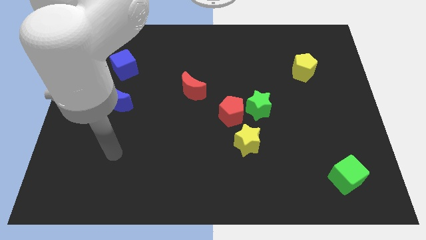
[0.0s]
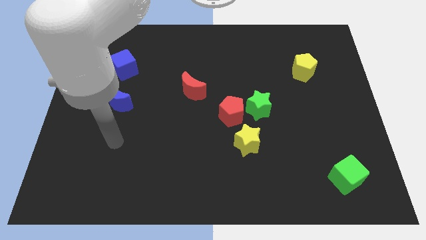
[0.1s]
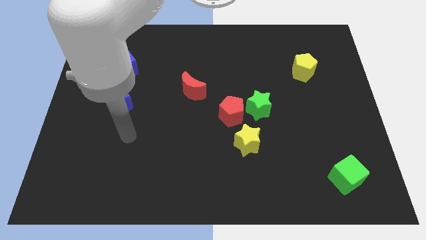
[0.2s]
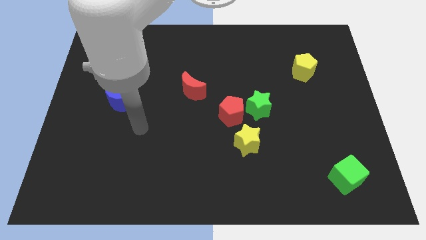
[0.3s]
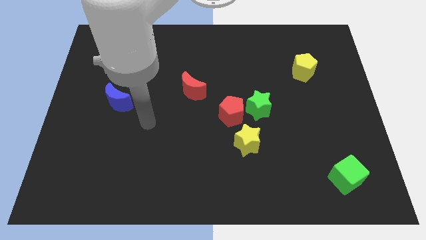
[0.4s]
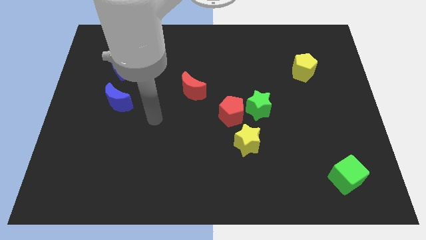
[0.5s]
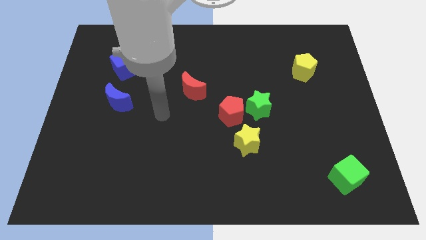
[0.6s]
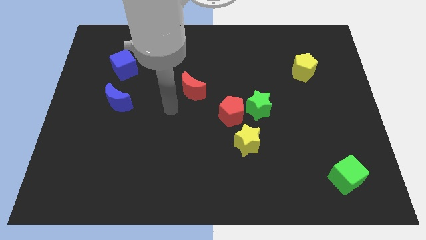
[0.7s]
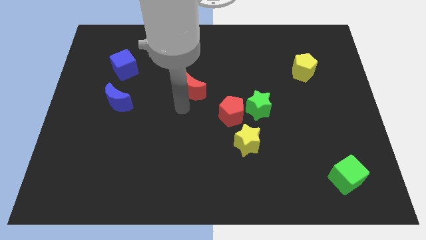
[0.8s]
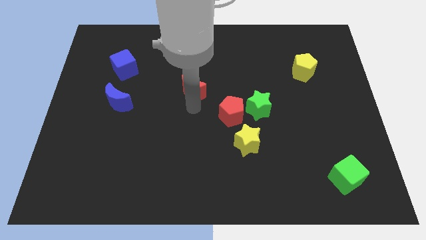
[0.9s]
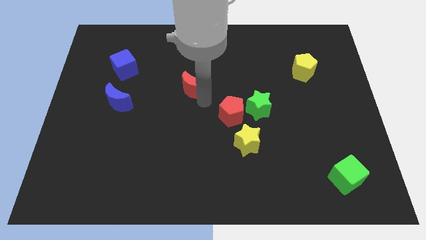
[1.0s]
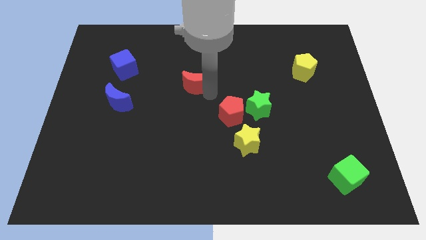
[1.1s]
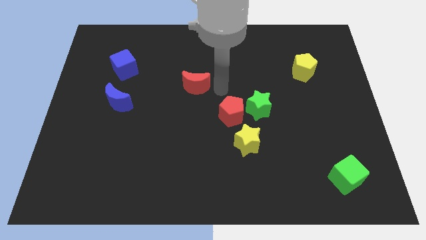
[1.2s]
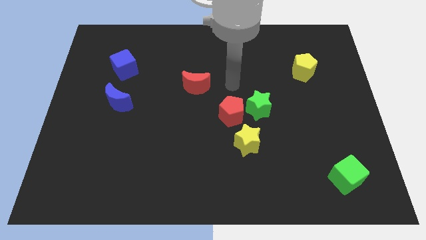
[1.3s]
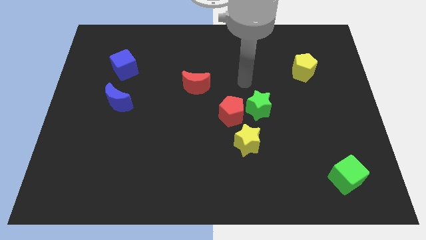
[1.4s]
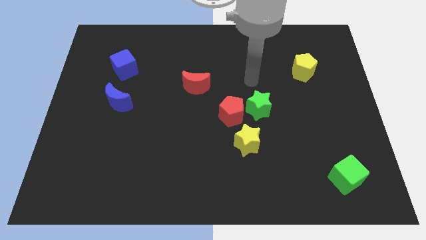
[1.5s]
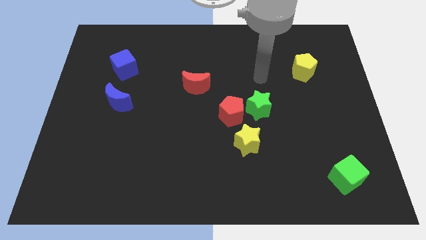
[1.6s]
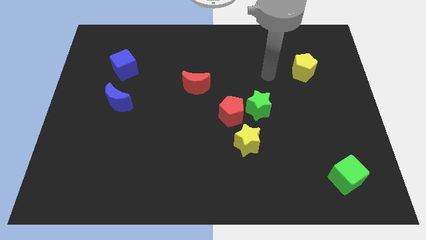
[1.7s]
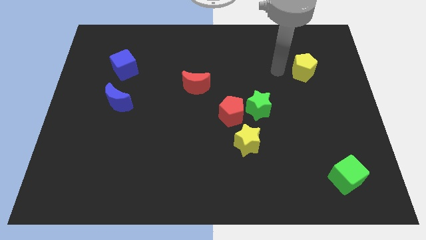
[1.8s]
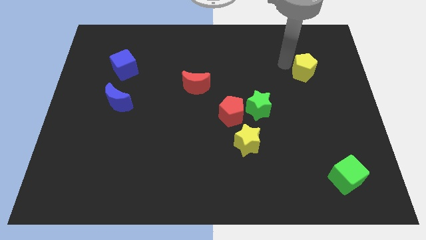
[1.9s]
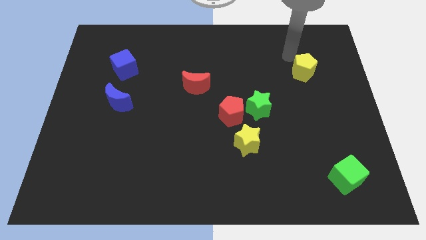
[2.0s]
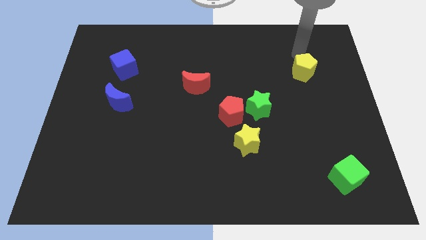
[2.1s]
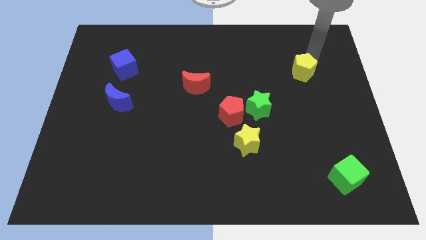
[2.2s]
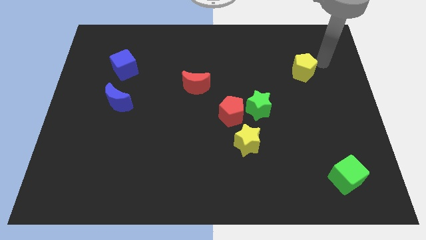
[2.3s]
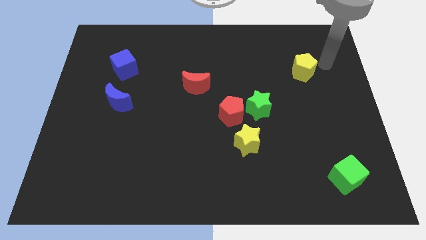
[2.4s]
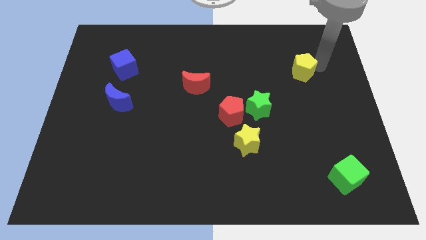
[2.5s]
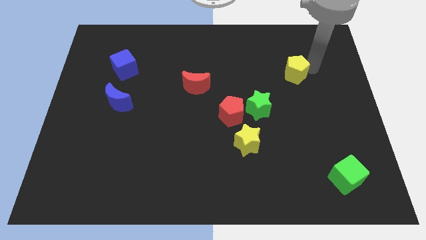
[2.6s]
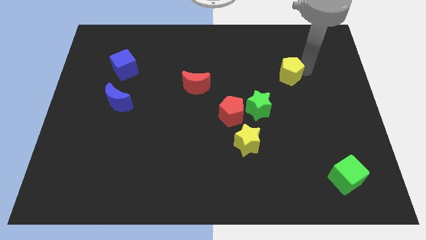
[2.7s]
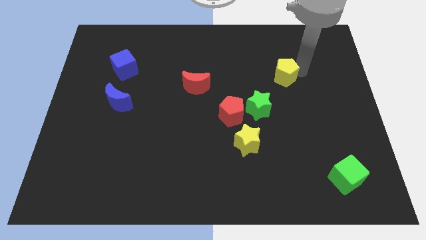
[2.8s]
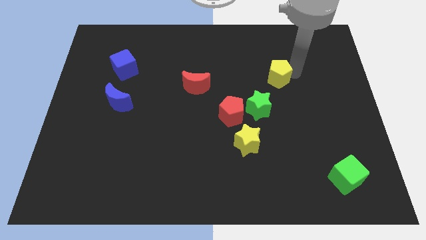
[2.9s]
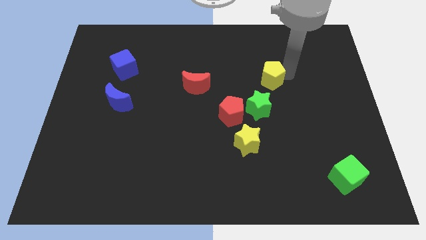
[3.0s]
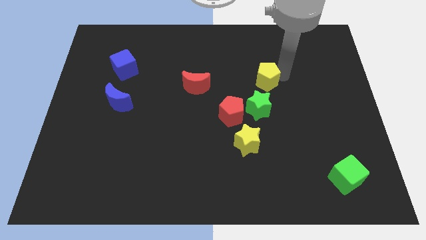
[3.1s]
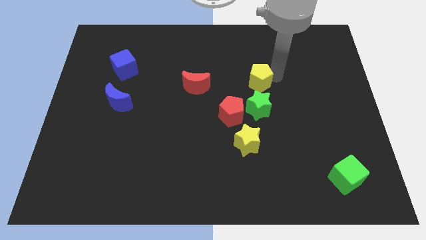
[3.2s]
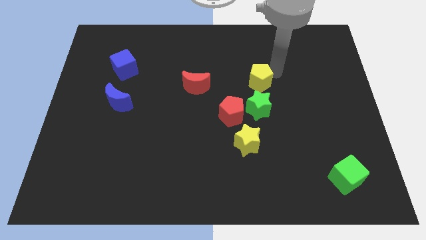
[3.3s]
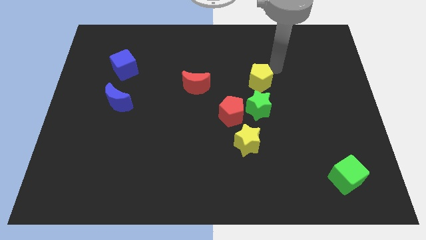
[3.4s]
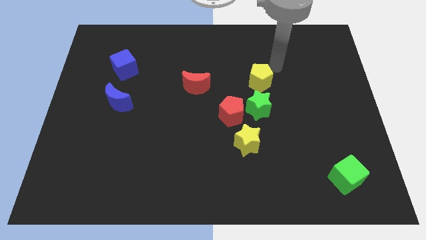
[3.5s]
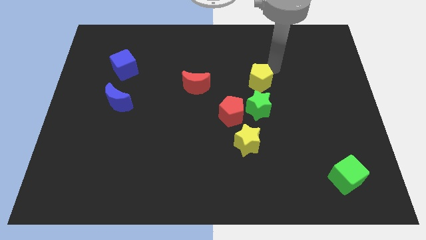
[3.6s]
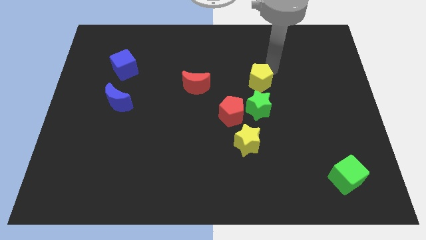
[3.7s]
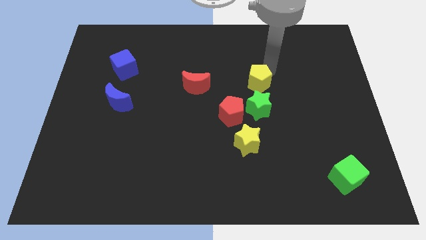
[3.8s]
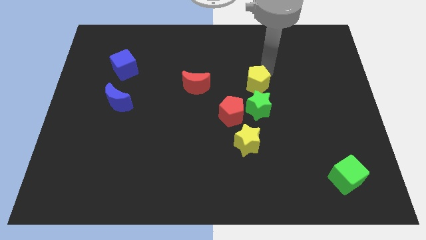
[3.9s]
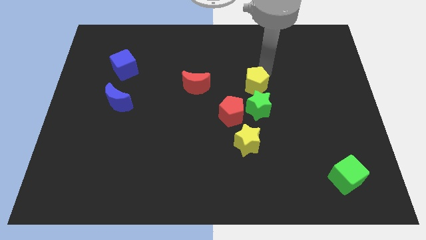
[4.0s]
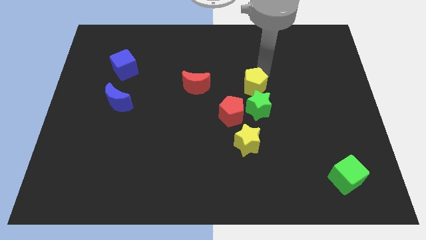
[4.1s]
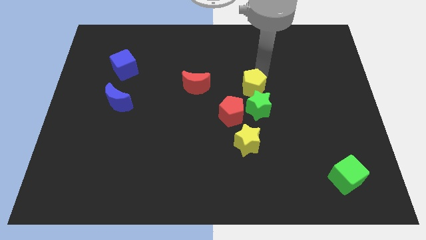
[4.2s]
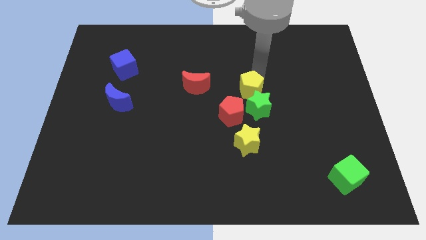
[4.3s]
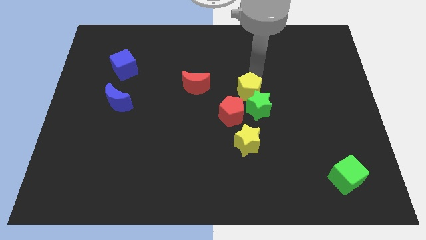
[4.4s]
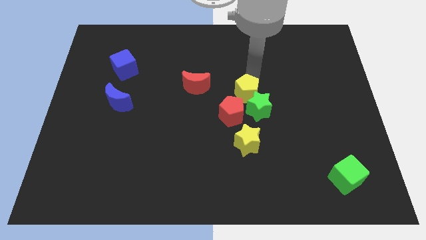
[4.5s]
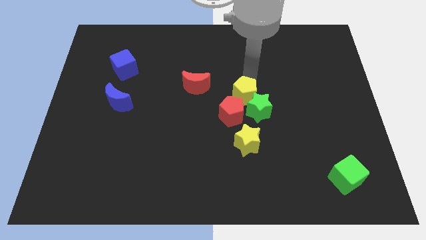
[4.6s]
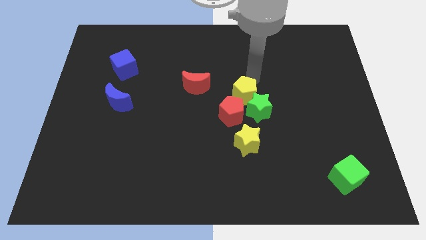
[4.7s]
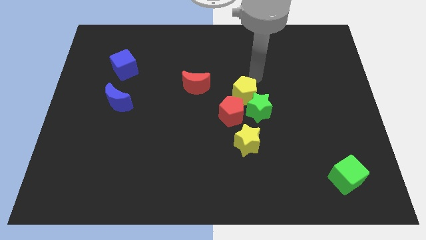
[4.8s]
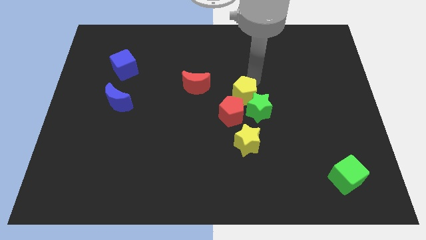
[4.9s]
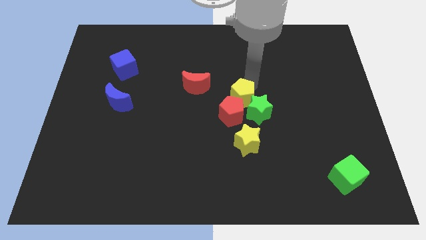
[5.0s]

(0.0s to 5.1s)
put the yellow pentagon to the red pentagon

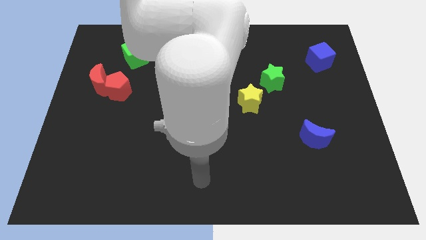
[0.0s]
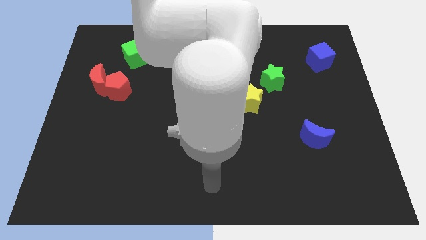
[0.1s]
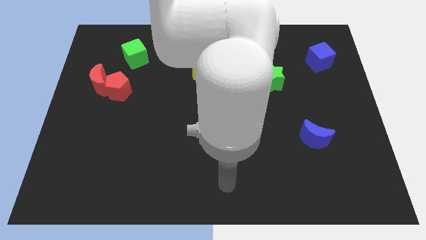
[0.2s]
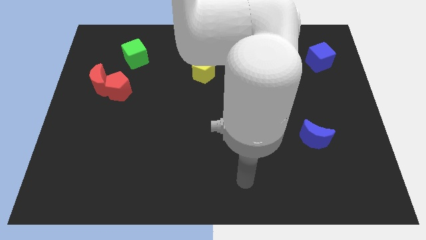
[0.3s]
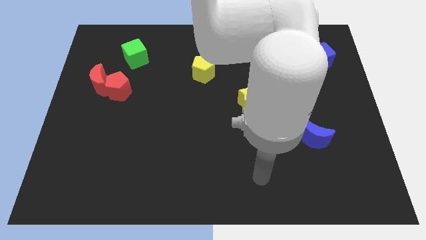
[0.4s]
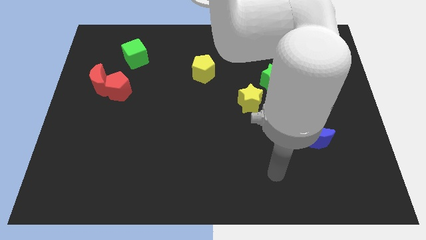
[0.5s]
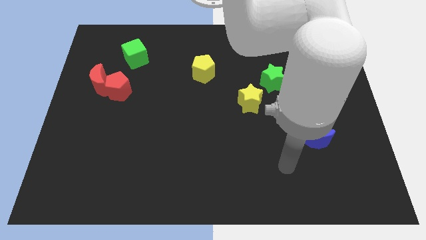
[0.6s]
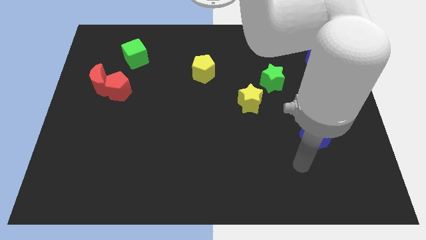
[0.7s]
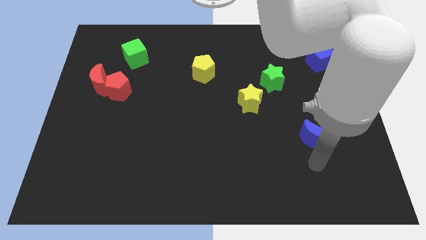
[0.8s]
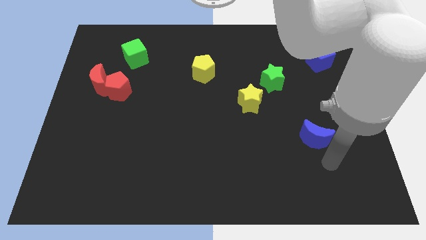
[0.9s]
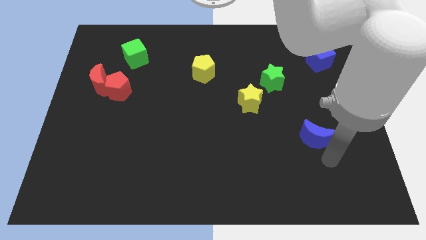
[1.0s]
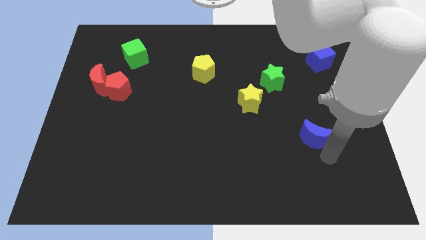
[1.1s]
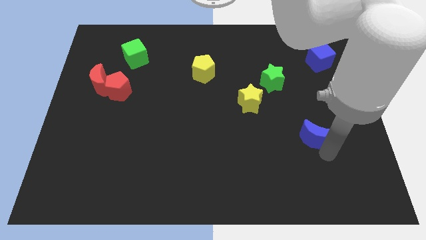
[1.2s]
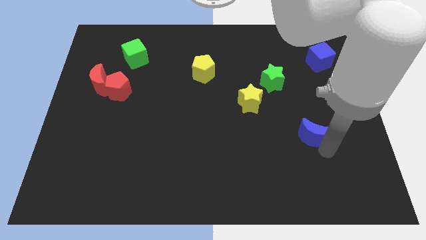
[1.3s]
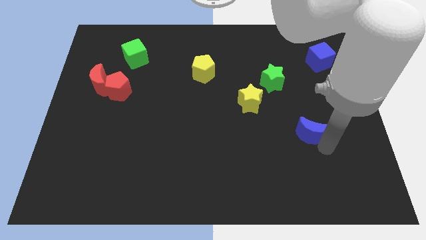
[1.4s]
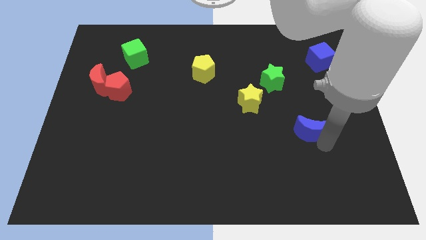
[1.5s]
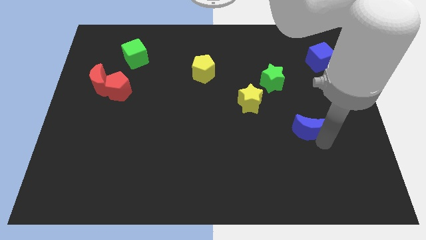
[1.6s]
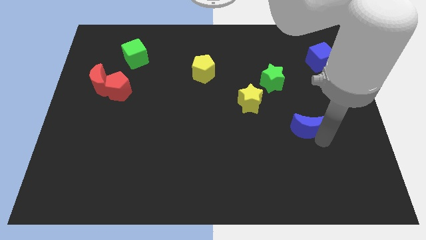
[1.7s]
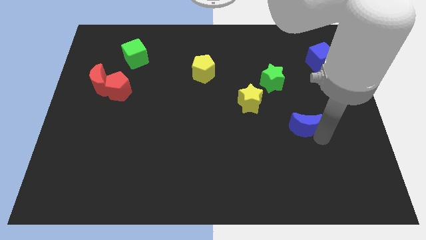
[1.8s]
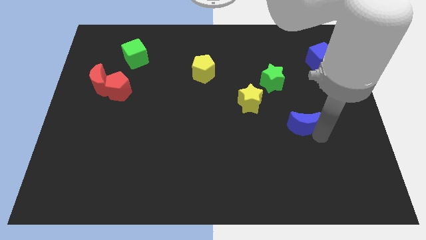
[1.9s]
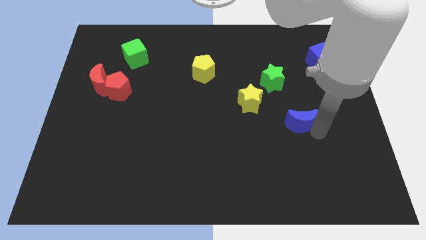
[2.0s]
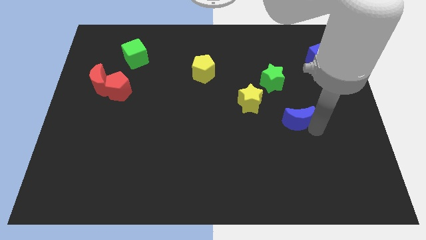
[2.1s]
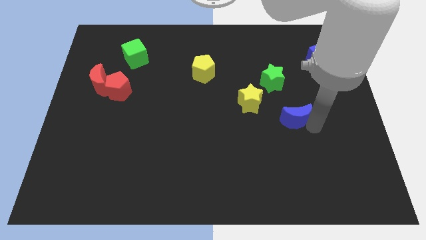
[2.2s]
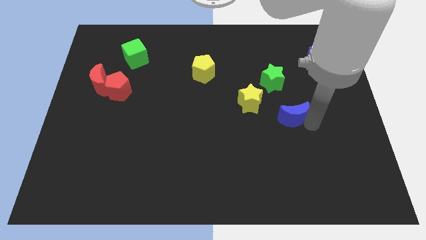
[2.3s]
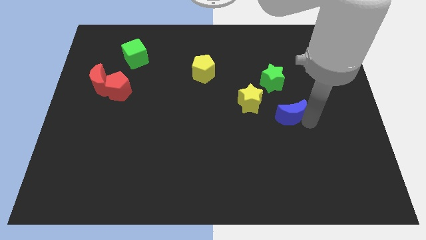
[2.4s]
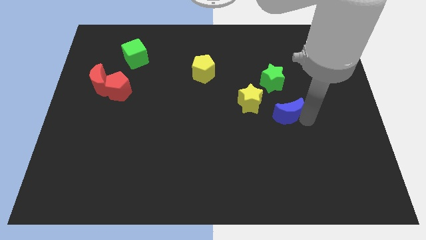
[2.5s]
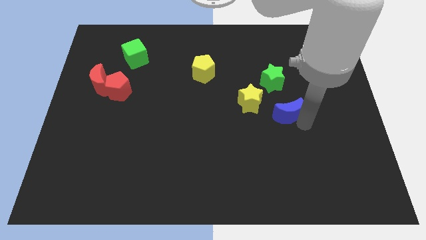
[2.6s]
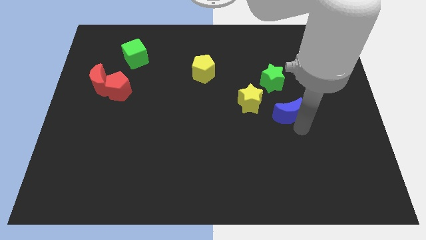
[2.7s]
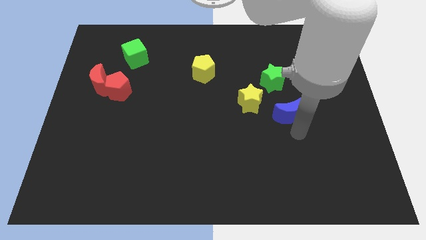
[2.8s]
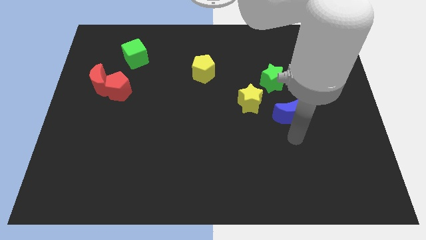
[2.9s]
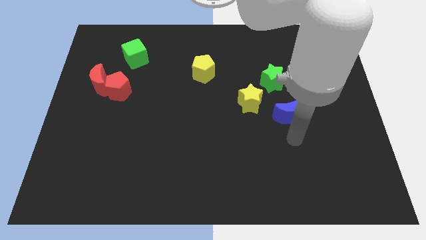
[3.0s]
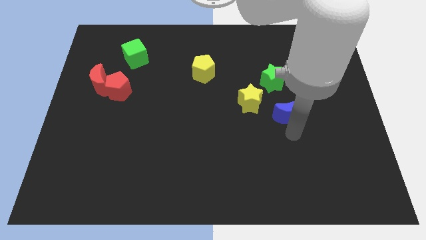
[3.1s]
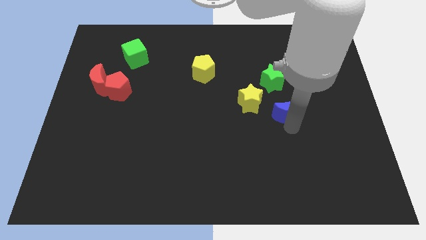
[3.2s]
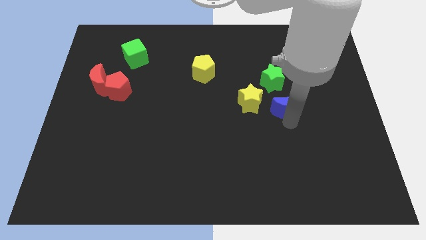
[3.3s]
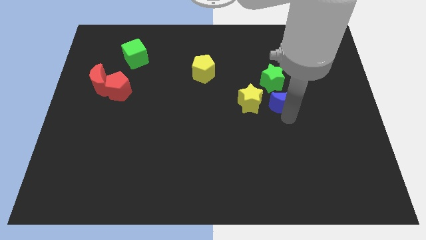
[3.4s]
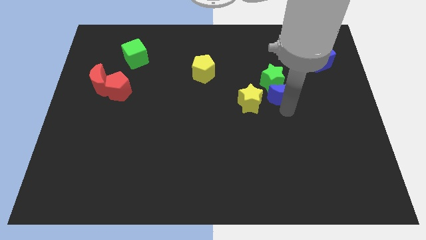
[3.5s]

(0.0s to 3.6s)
put the blue moon close to the green star
